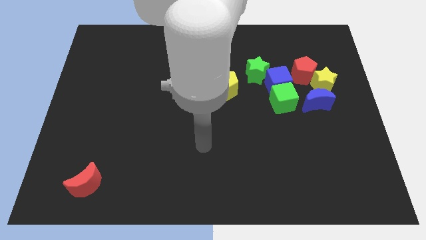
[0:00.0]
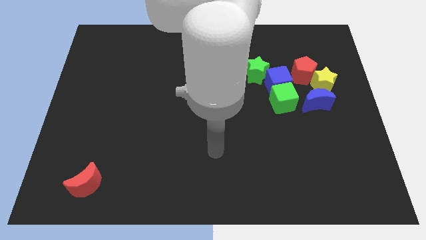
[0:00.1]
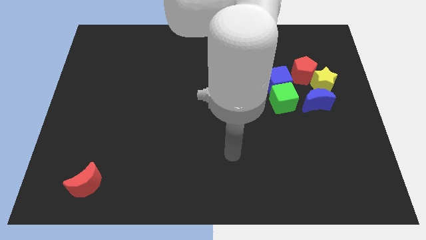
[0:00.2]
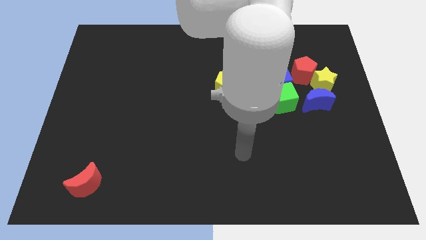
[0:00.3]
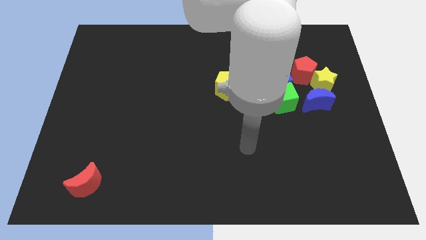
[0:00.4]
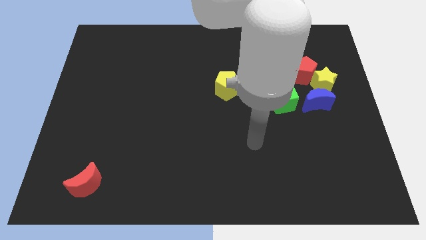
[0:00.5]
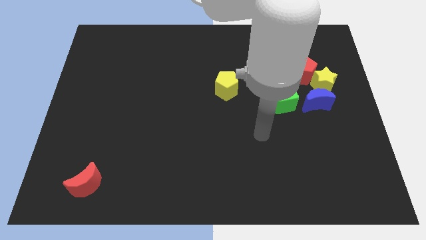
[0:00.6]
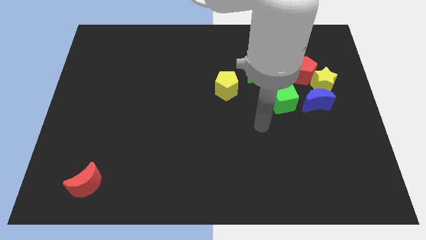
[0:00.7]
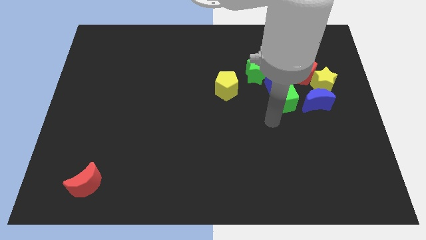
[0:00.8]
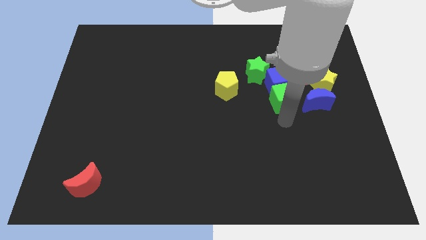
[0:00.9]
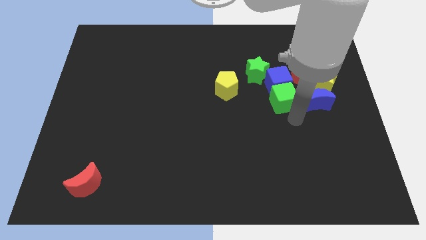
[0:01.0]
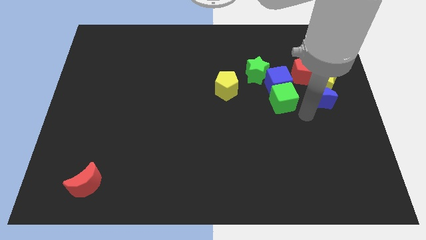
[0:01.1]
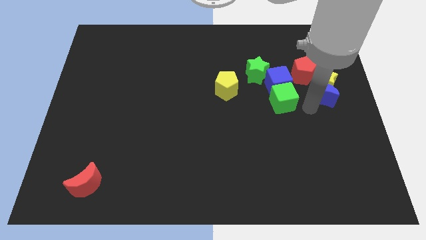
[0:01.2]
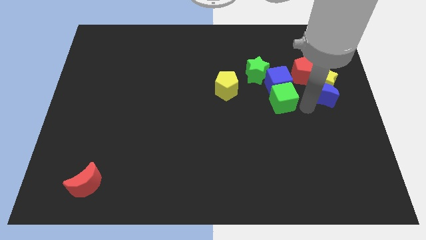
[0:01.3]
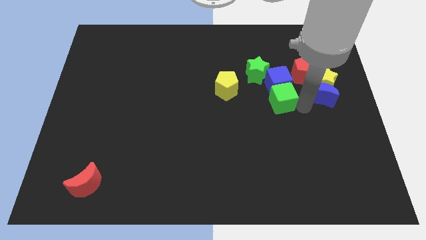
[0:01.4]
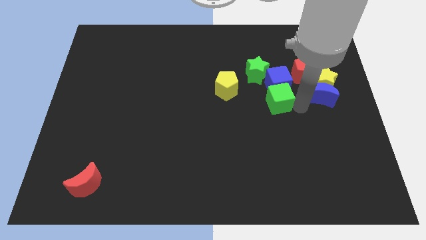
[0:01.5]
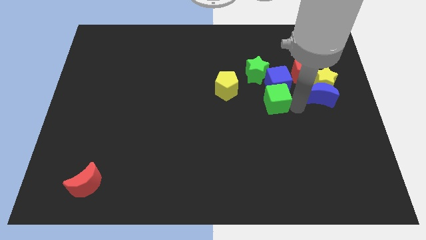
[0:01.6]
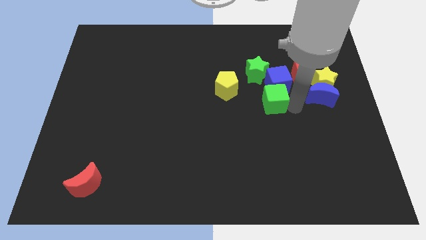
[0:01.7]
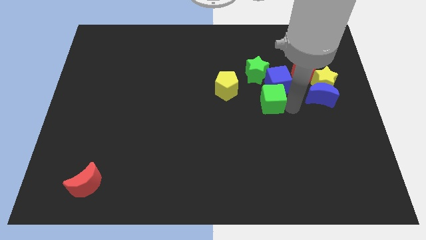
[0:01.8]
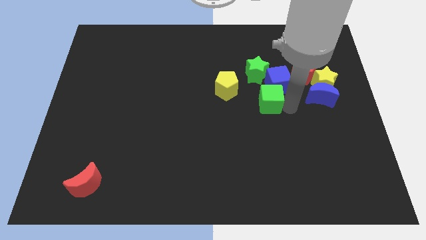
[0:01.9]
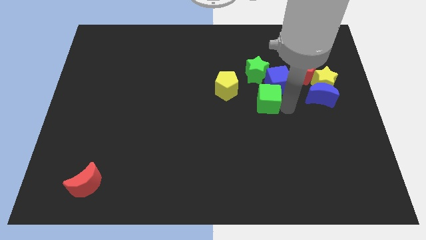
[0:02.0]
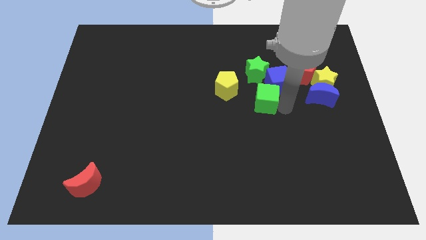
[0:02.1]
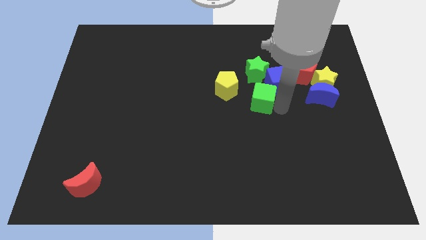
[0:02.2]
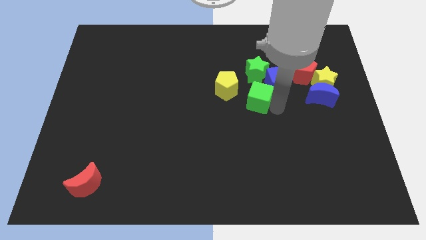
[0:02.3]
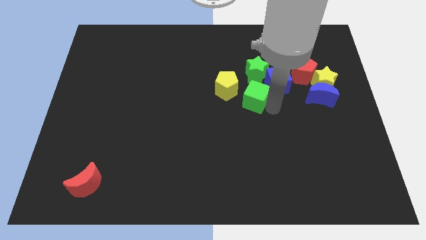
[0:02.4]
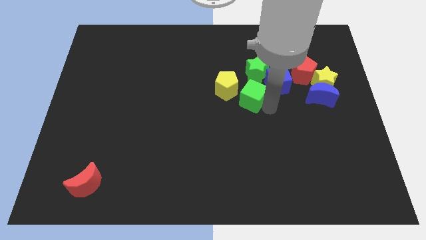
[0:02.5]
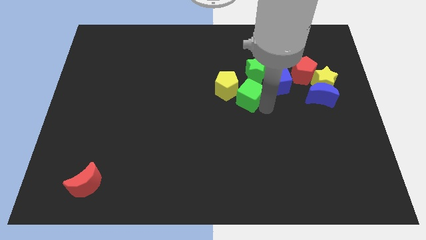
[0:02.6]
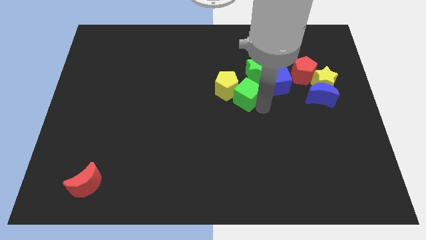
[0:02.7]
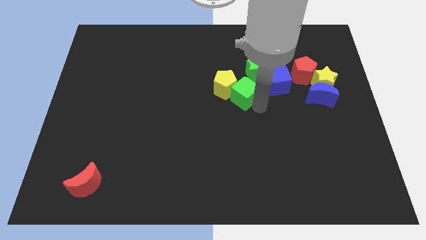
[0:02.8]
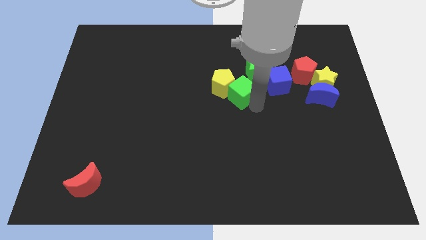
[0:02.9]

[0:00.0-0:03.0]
move the green cube up and left diagonally somewhat

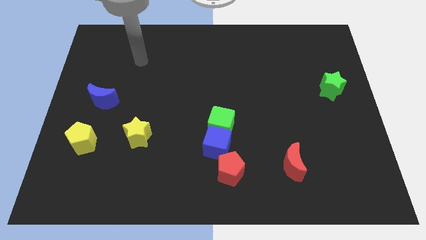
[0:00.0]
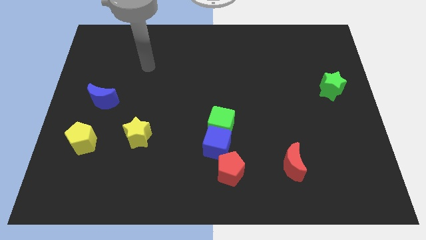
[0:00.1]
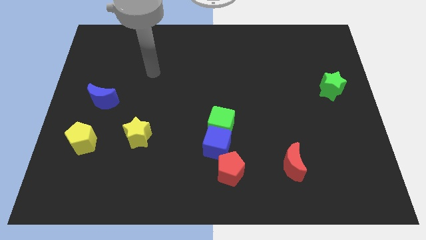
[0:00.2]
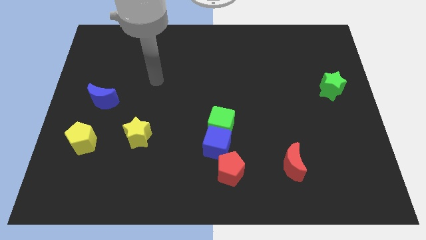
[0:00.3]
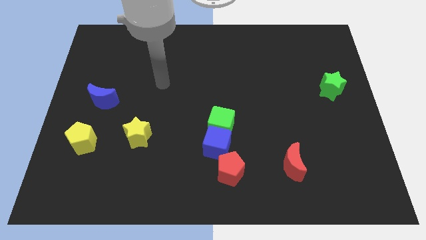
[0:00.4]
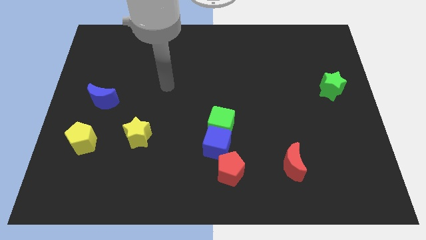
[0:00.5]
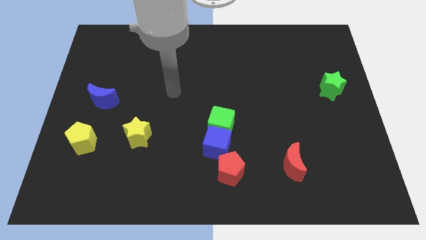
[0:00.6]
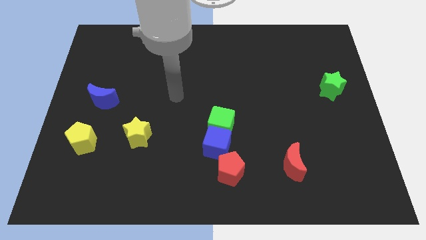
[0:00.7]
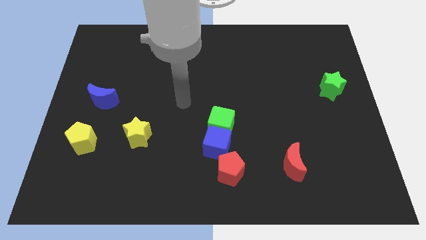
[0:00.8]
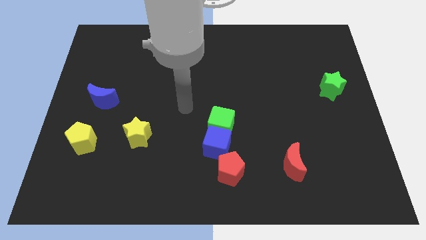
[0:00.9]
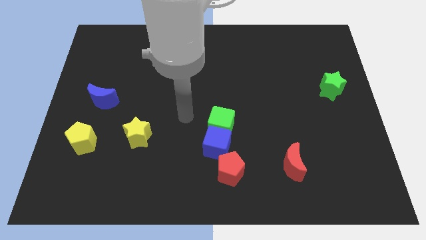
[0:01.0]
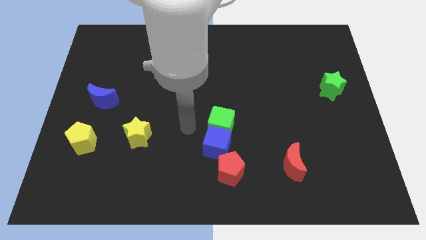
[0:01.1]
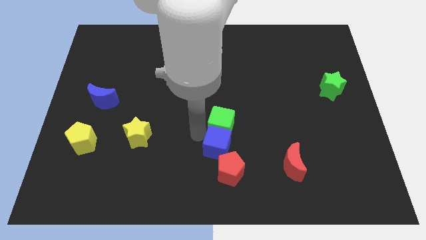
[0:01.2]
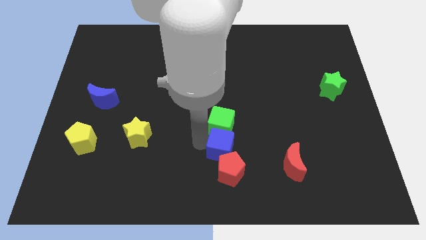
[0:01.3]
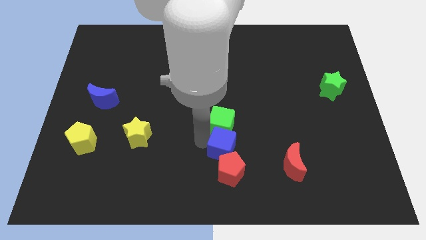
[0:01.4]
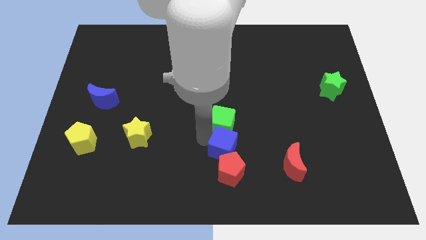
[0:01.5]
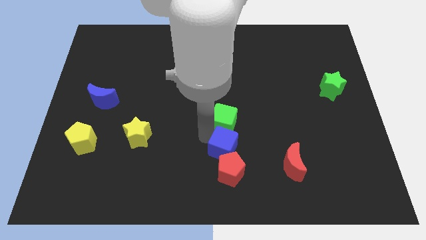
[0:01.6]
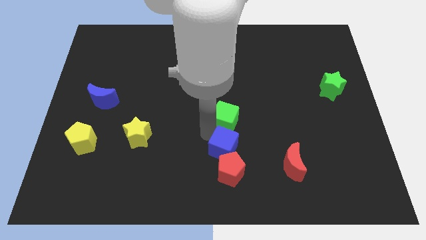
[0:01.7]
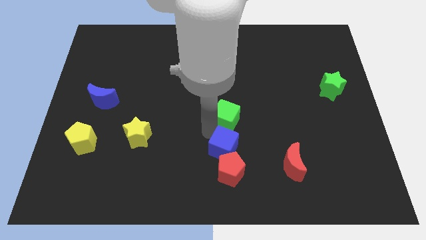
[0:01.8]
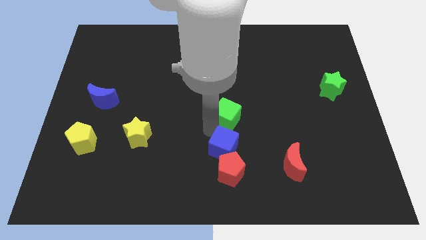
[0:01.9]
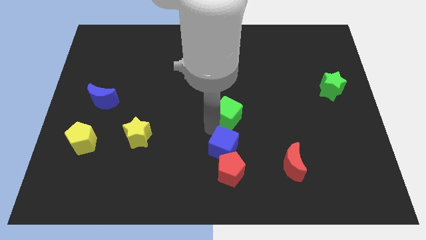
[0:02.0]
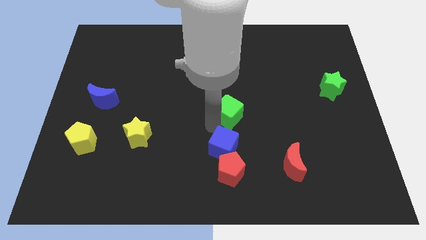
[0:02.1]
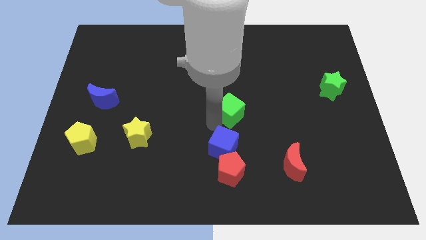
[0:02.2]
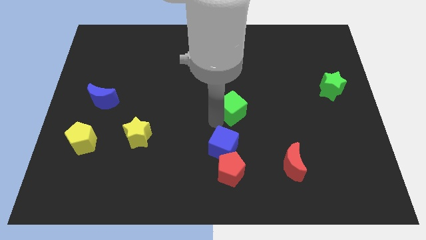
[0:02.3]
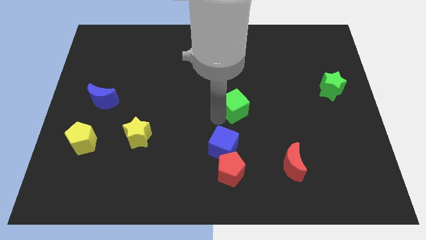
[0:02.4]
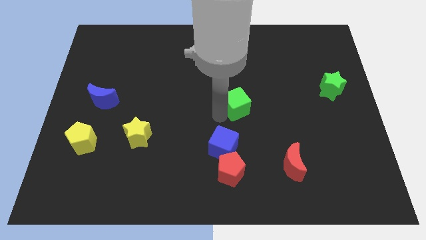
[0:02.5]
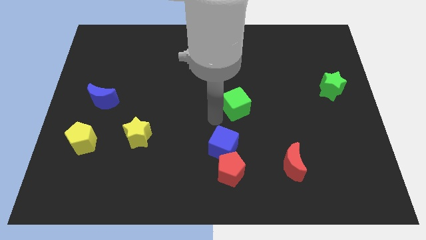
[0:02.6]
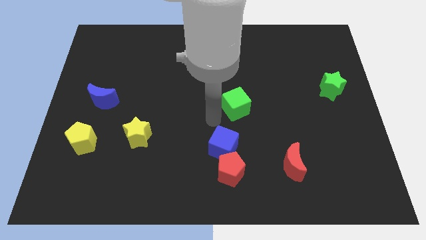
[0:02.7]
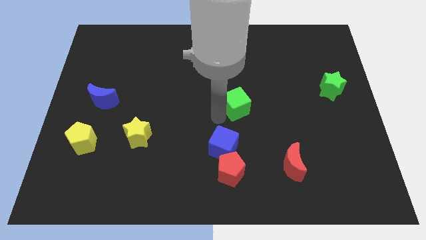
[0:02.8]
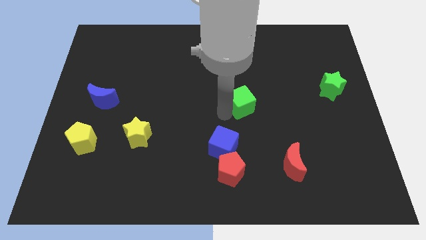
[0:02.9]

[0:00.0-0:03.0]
slide the green cube a little bit diagonally up and to the right

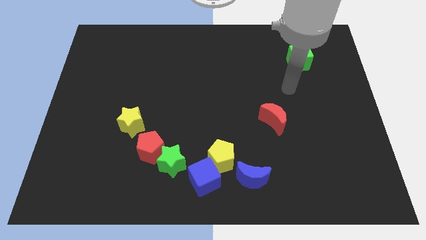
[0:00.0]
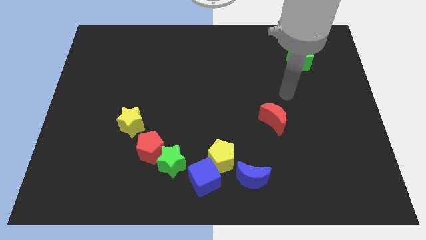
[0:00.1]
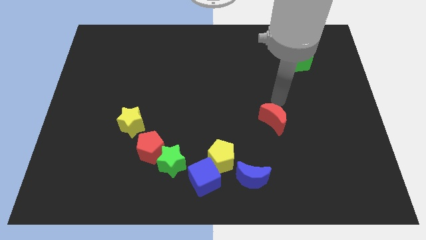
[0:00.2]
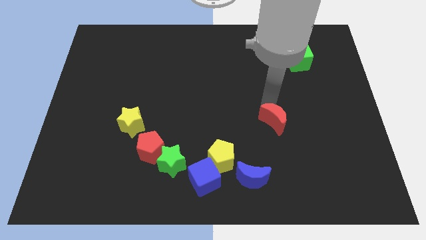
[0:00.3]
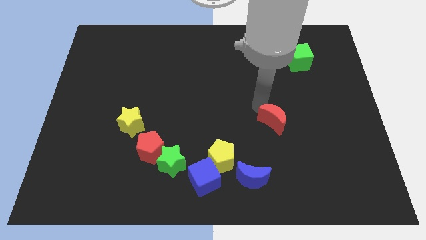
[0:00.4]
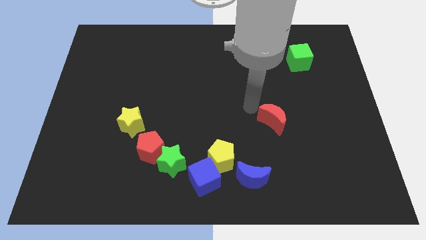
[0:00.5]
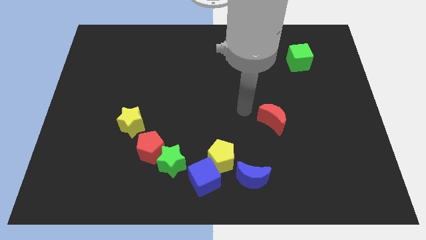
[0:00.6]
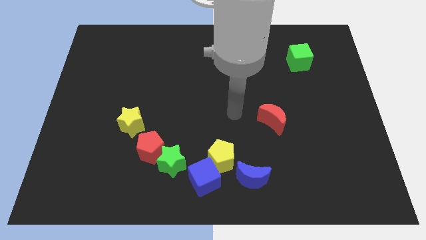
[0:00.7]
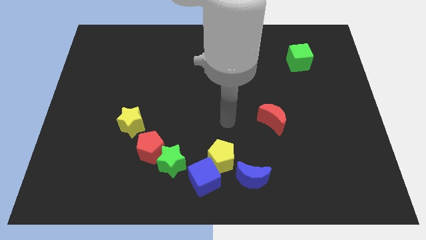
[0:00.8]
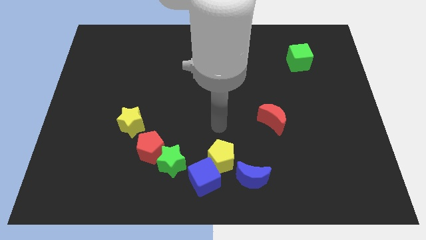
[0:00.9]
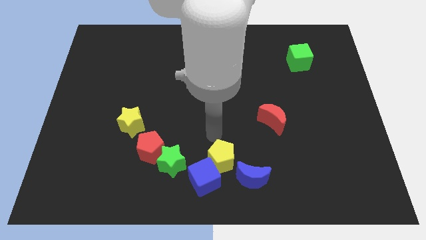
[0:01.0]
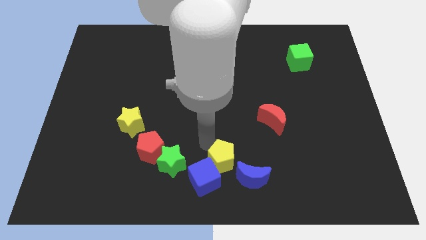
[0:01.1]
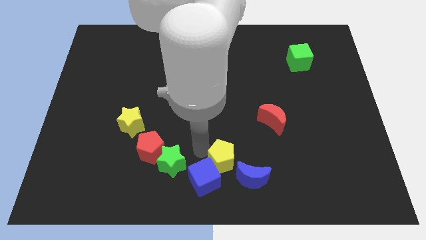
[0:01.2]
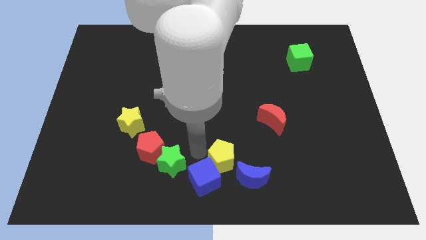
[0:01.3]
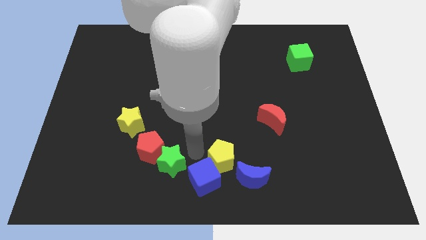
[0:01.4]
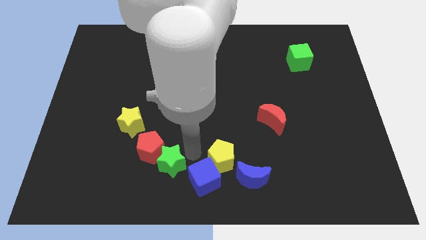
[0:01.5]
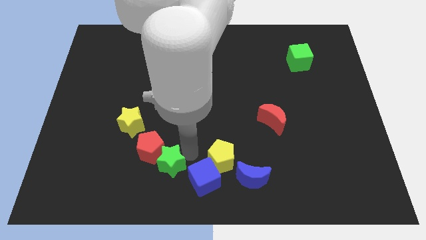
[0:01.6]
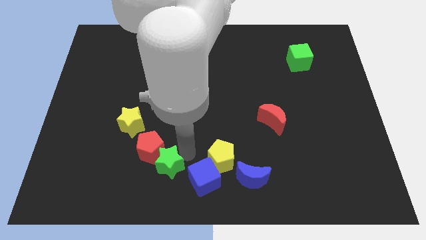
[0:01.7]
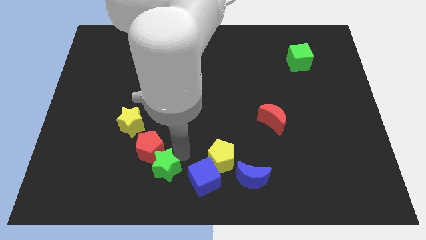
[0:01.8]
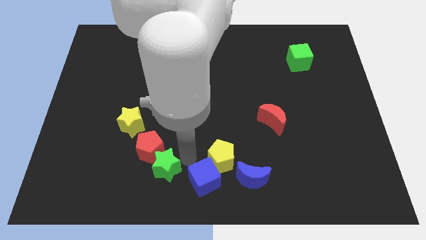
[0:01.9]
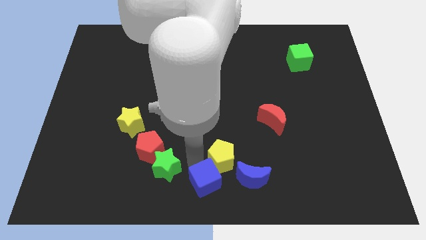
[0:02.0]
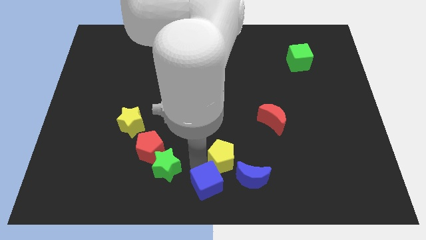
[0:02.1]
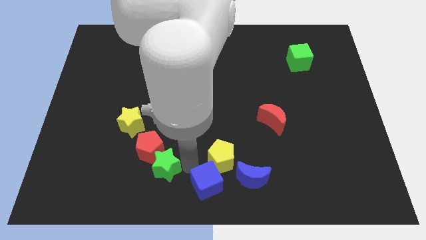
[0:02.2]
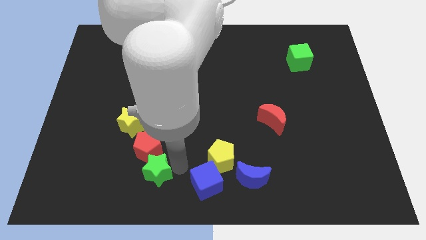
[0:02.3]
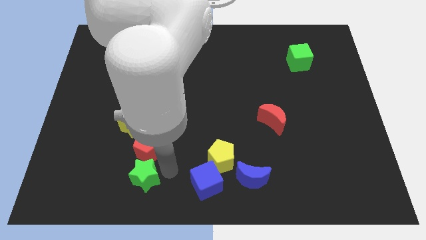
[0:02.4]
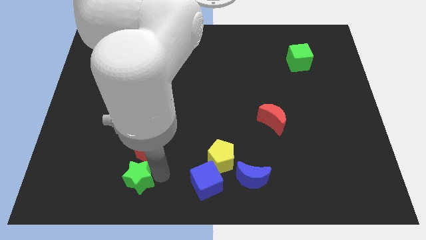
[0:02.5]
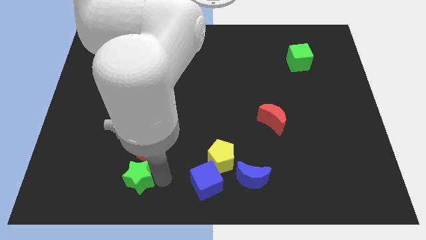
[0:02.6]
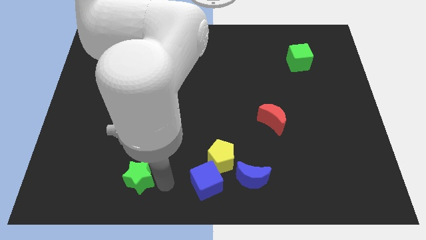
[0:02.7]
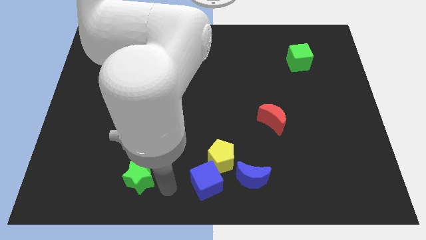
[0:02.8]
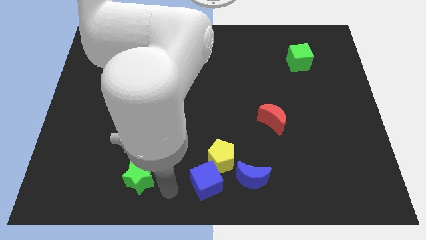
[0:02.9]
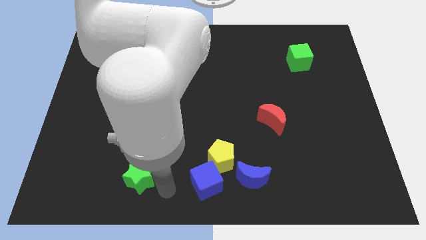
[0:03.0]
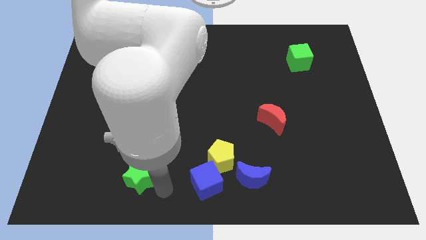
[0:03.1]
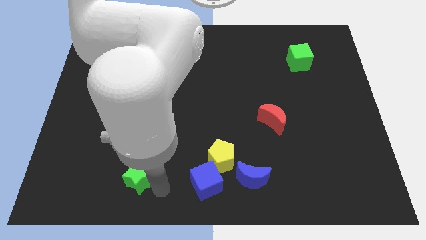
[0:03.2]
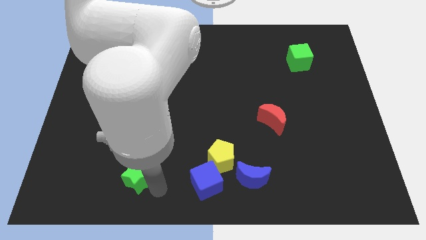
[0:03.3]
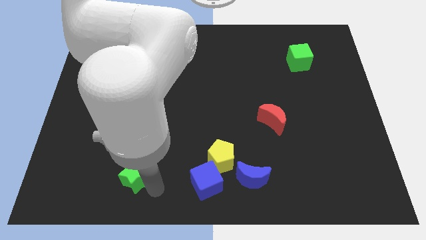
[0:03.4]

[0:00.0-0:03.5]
push the green star slightly left
